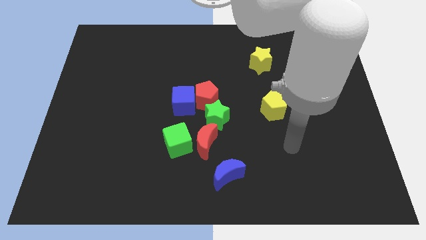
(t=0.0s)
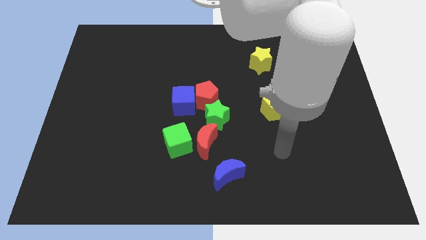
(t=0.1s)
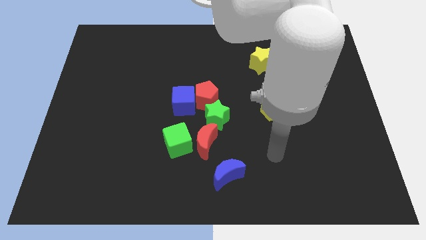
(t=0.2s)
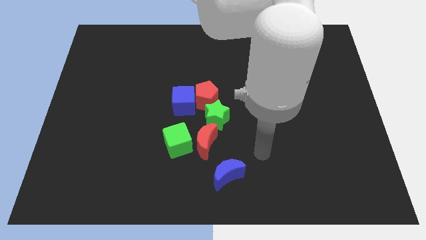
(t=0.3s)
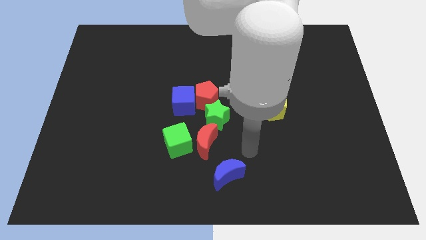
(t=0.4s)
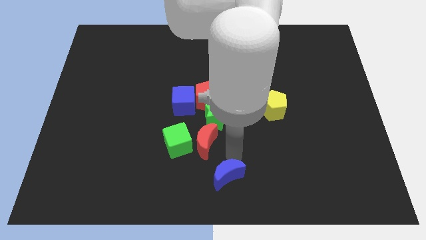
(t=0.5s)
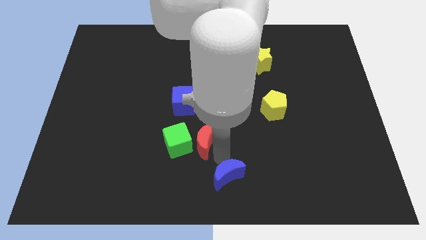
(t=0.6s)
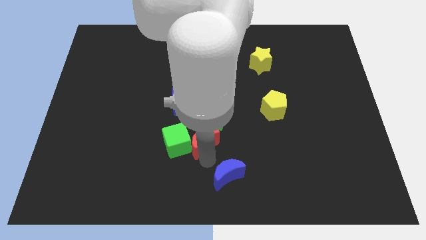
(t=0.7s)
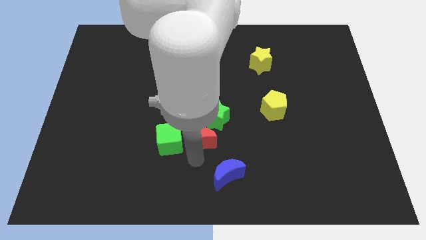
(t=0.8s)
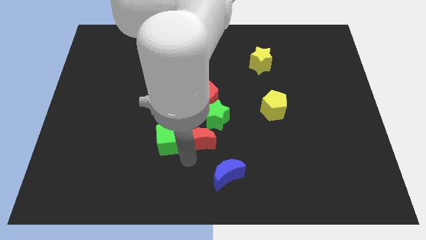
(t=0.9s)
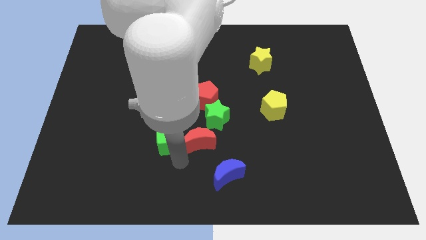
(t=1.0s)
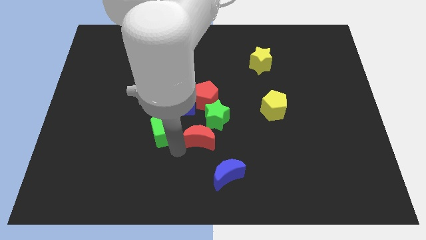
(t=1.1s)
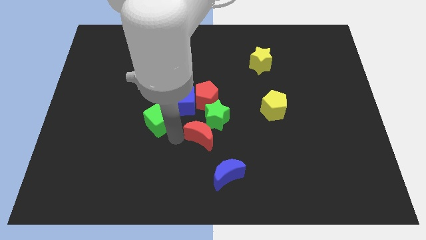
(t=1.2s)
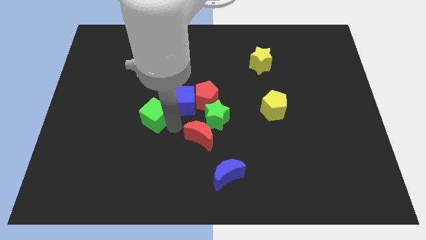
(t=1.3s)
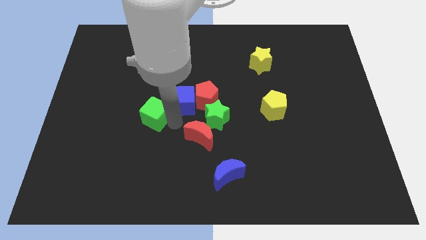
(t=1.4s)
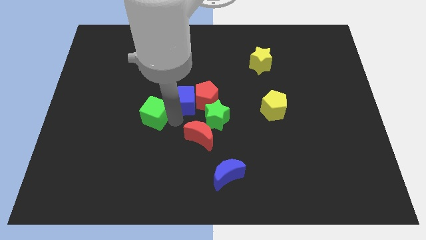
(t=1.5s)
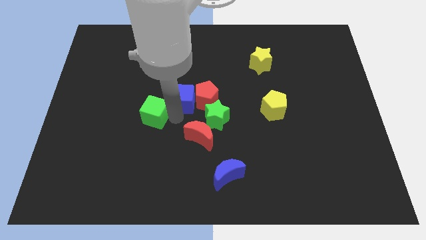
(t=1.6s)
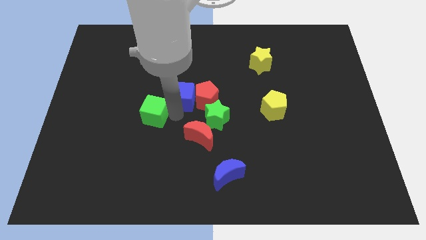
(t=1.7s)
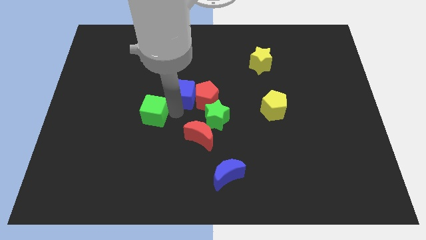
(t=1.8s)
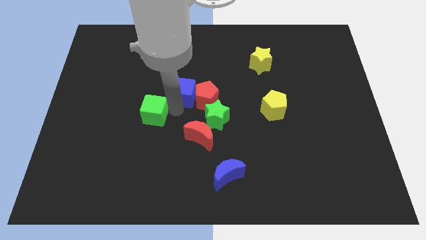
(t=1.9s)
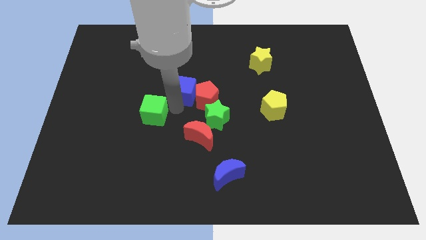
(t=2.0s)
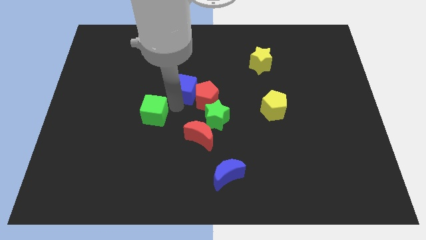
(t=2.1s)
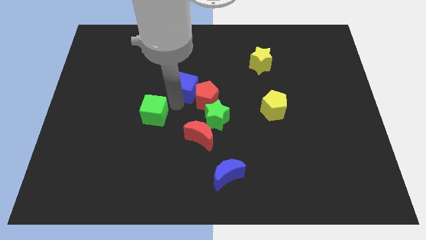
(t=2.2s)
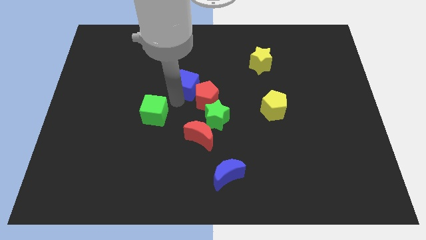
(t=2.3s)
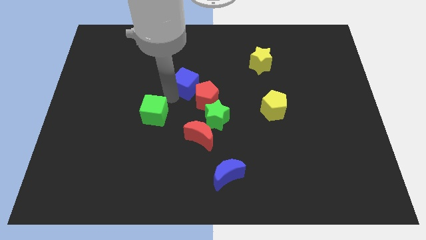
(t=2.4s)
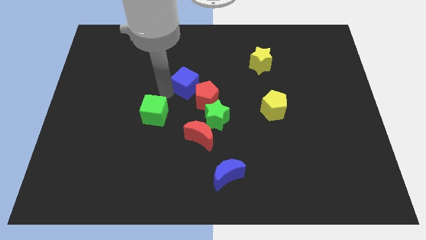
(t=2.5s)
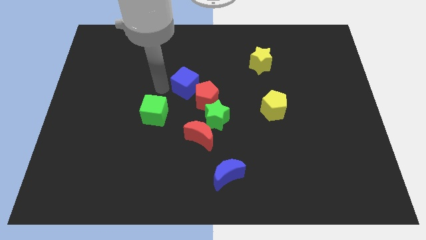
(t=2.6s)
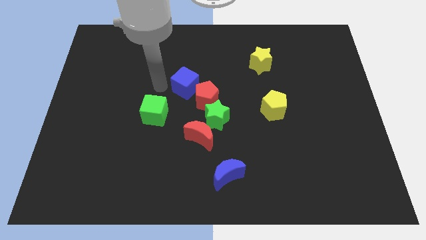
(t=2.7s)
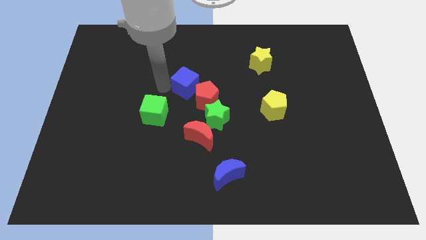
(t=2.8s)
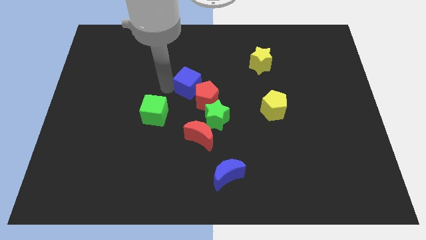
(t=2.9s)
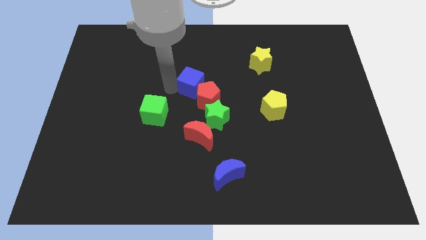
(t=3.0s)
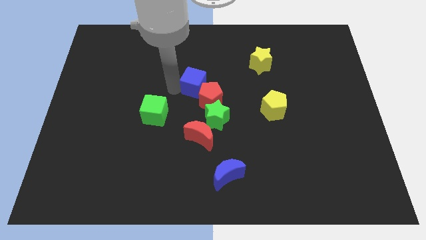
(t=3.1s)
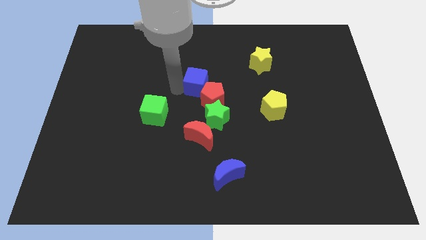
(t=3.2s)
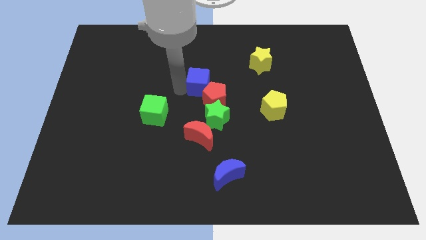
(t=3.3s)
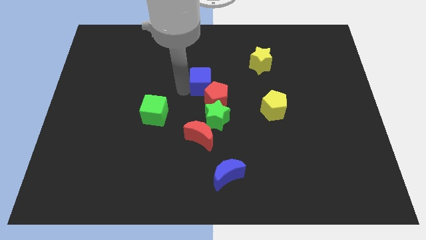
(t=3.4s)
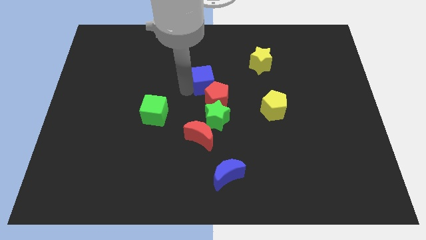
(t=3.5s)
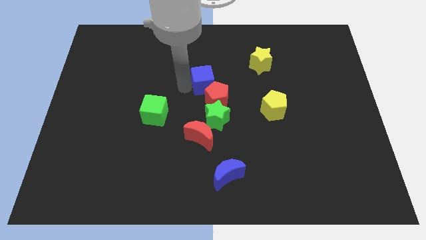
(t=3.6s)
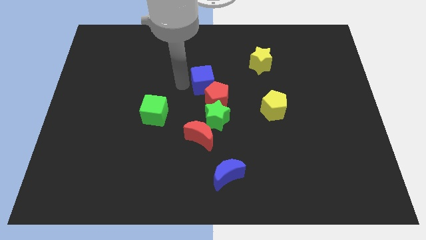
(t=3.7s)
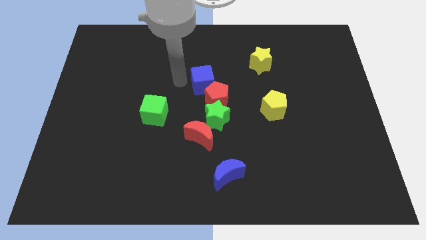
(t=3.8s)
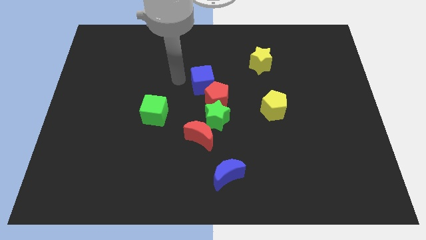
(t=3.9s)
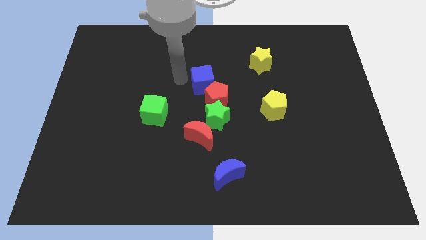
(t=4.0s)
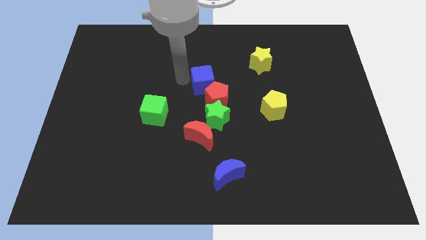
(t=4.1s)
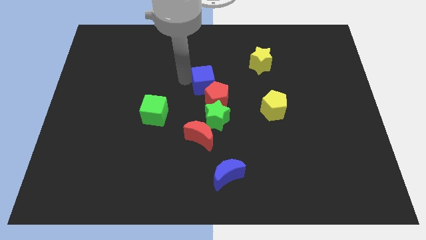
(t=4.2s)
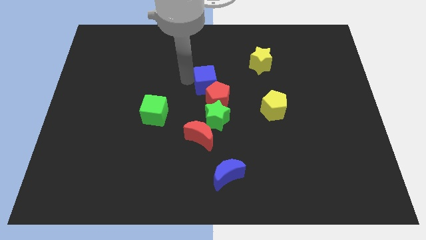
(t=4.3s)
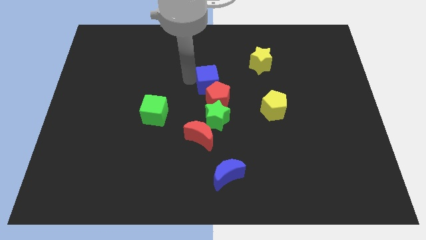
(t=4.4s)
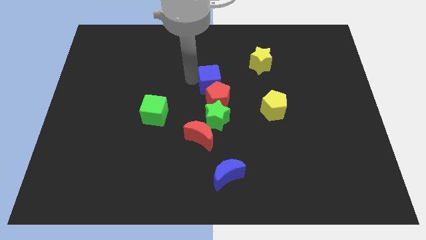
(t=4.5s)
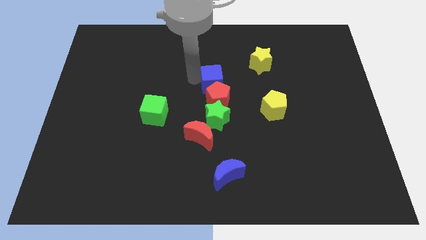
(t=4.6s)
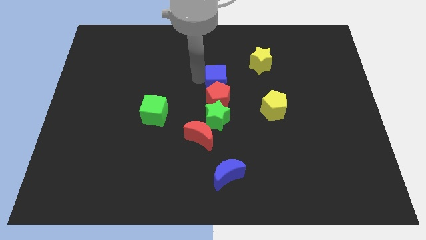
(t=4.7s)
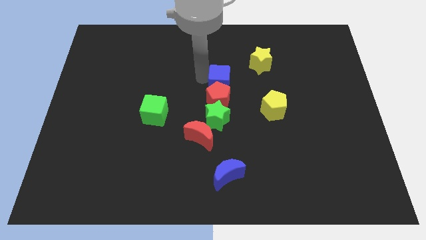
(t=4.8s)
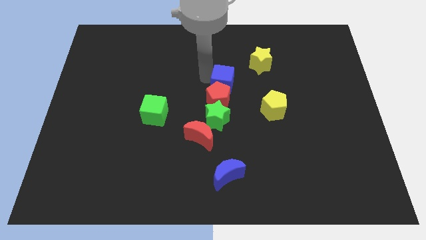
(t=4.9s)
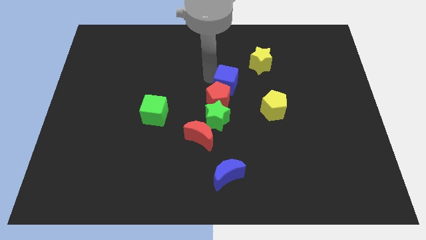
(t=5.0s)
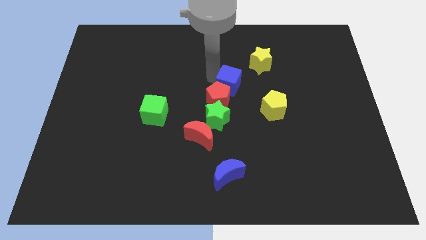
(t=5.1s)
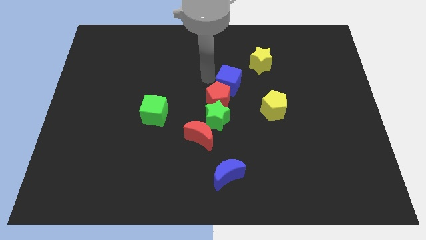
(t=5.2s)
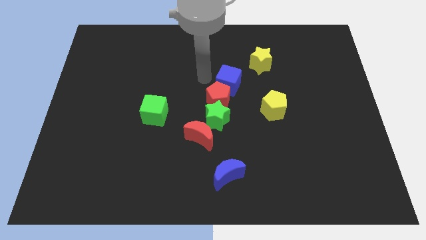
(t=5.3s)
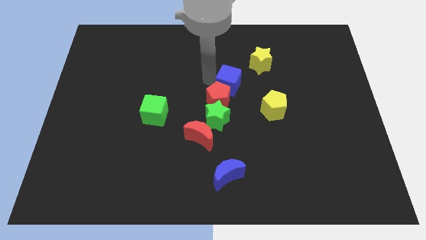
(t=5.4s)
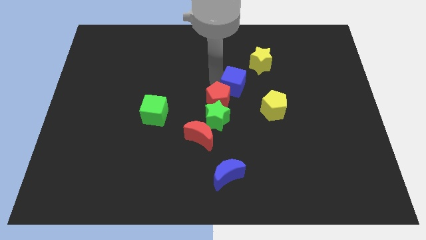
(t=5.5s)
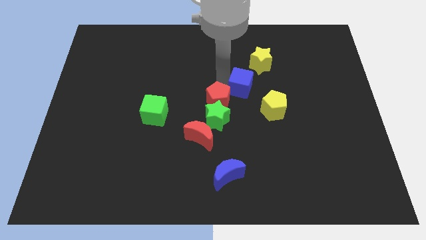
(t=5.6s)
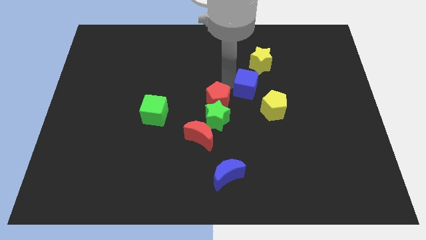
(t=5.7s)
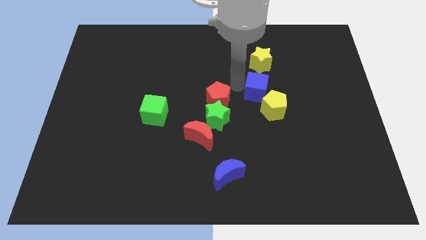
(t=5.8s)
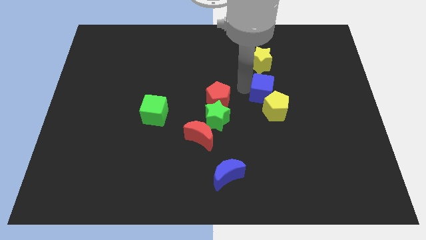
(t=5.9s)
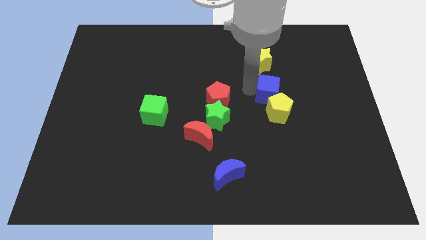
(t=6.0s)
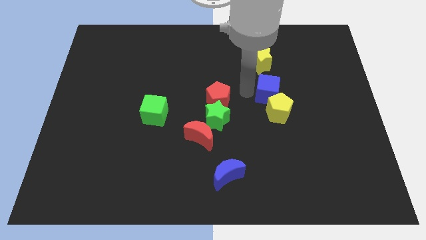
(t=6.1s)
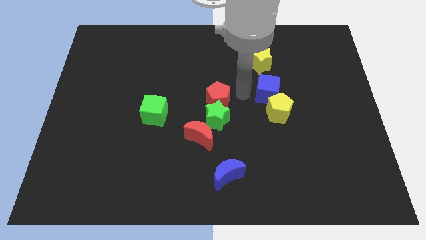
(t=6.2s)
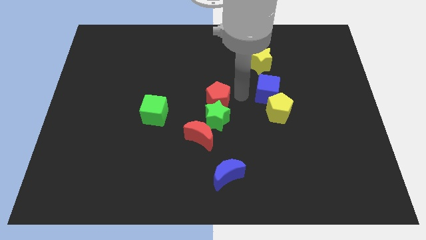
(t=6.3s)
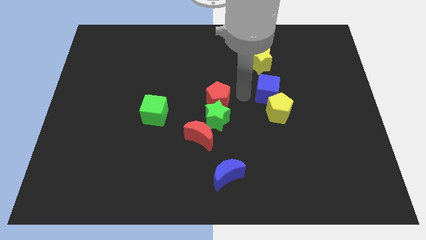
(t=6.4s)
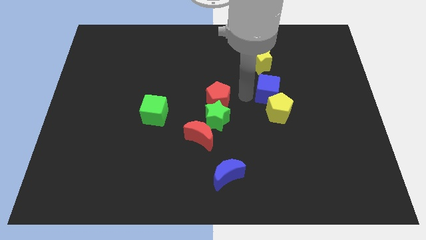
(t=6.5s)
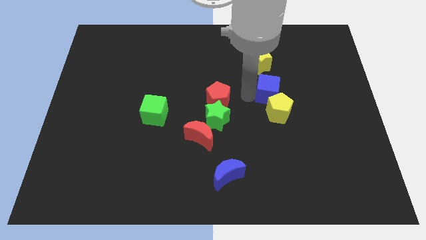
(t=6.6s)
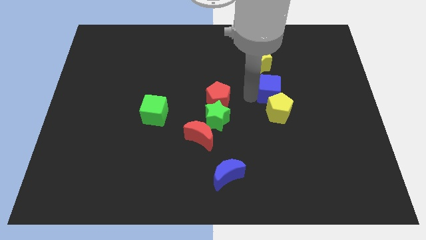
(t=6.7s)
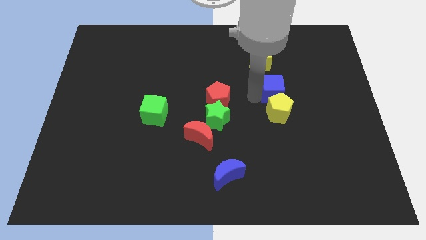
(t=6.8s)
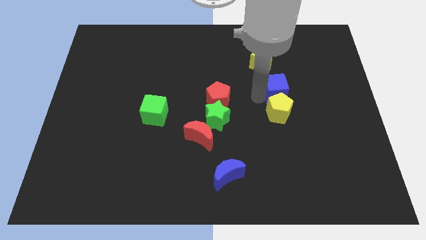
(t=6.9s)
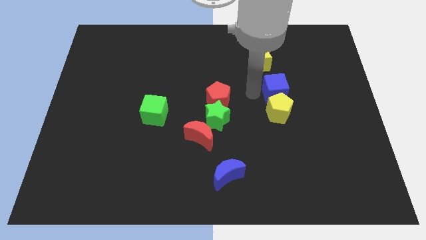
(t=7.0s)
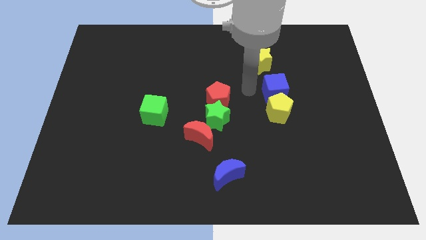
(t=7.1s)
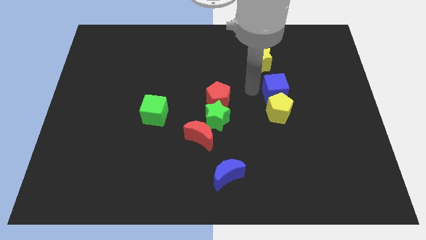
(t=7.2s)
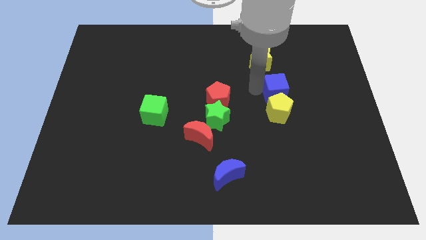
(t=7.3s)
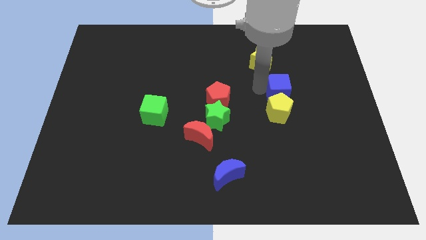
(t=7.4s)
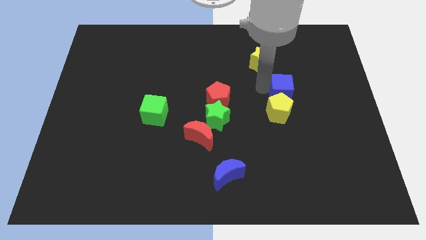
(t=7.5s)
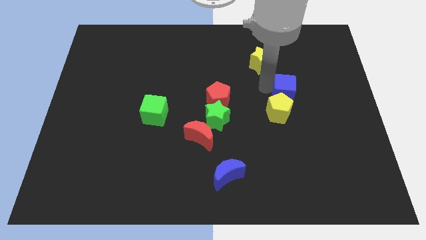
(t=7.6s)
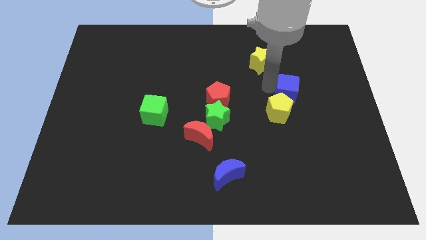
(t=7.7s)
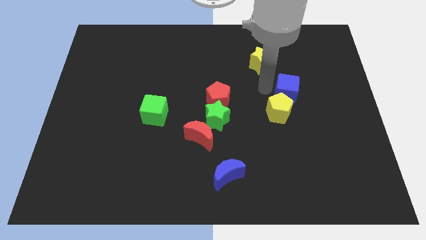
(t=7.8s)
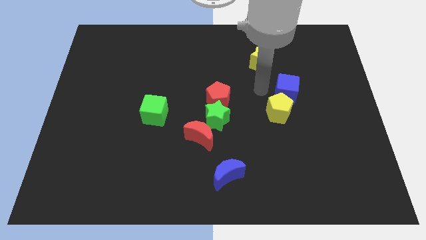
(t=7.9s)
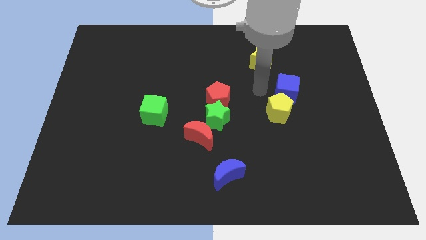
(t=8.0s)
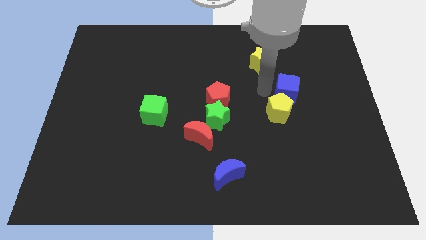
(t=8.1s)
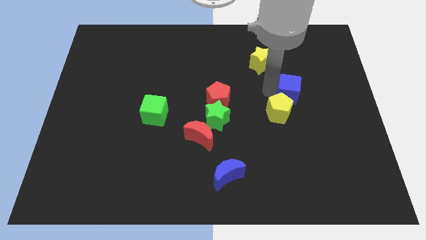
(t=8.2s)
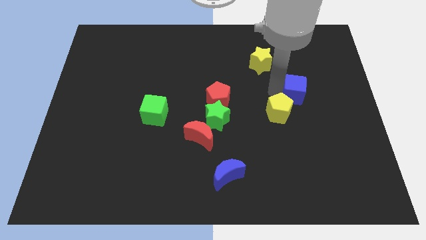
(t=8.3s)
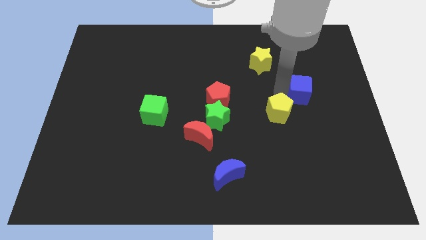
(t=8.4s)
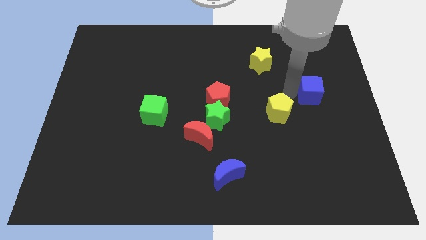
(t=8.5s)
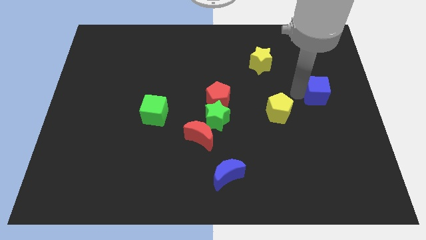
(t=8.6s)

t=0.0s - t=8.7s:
put the blue cube to the right side
